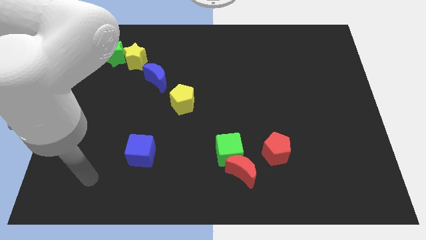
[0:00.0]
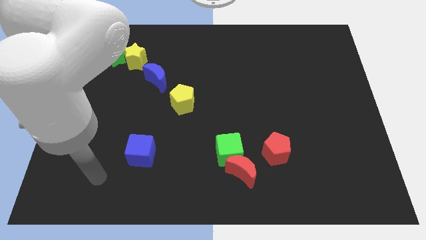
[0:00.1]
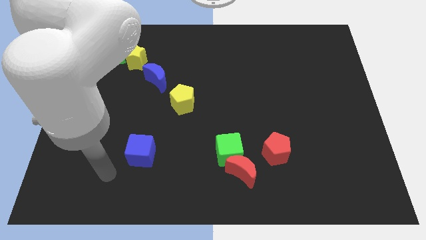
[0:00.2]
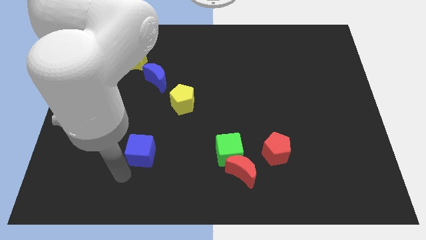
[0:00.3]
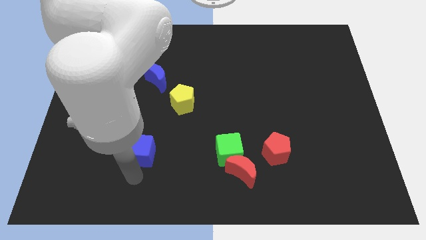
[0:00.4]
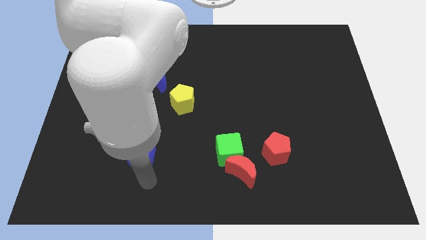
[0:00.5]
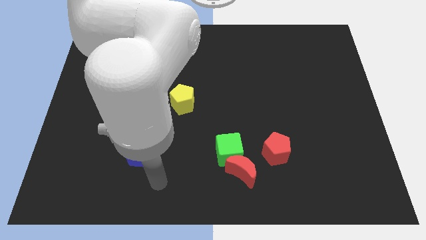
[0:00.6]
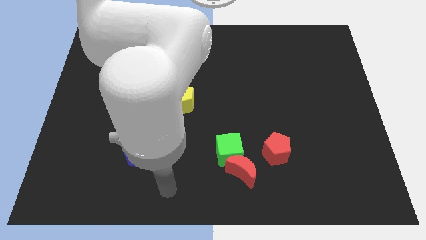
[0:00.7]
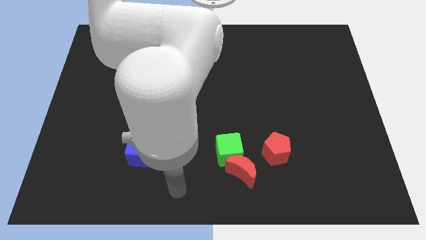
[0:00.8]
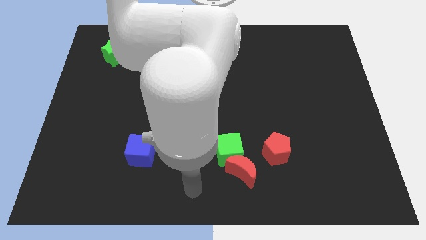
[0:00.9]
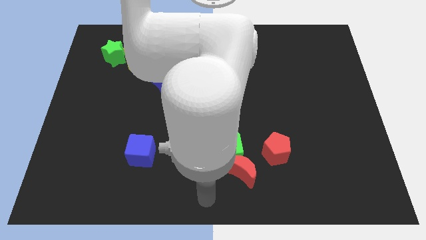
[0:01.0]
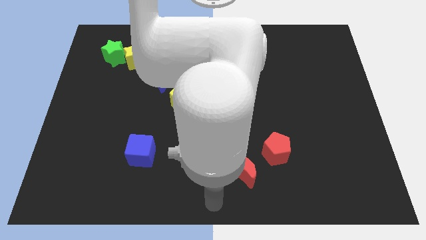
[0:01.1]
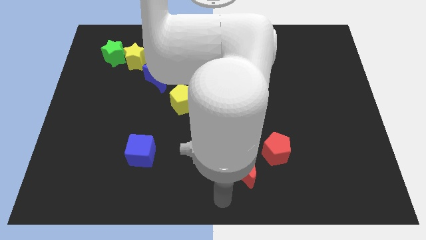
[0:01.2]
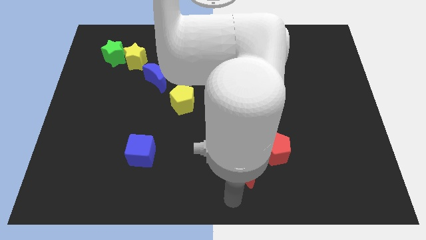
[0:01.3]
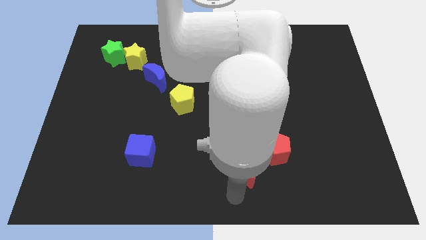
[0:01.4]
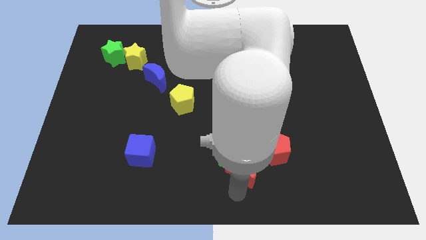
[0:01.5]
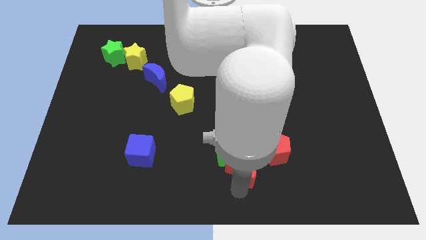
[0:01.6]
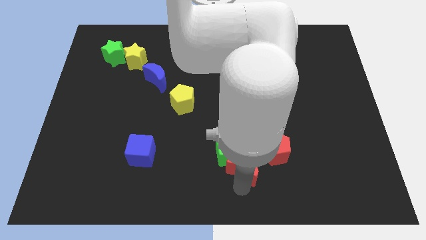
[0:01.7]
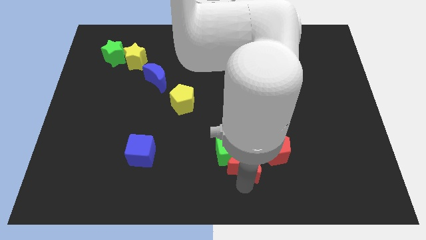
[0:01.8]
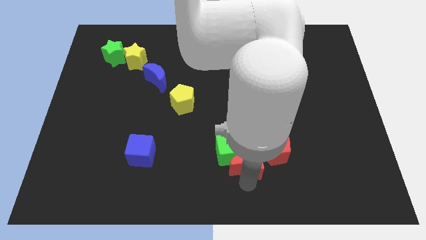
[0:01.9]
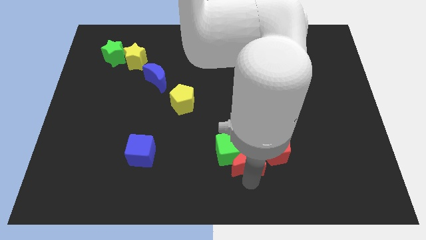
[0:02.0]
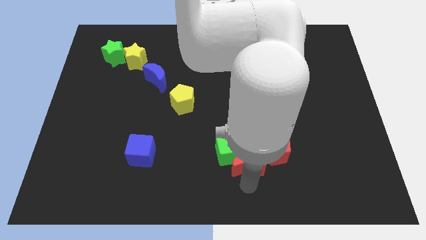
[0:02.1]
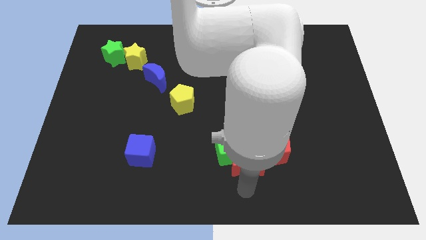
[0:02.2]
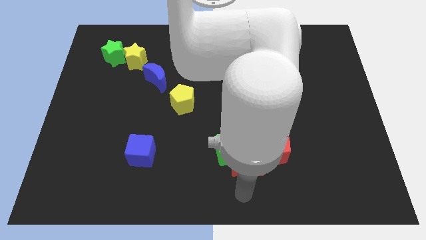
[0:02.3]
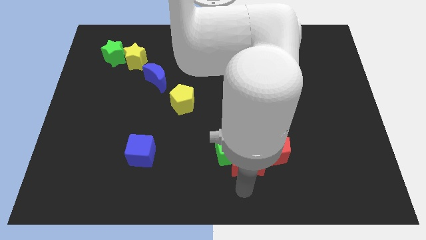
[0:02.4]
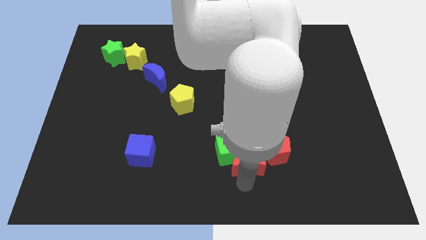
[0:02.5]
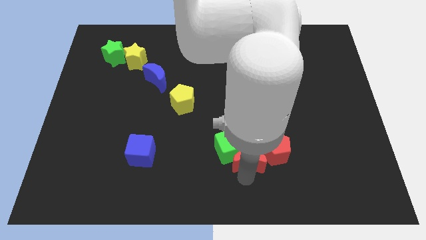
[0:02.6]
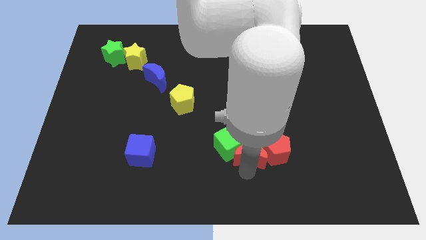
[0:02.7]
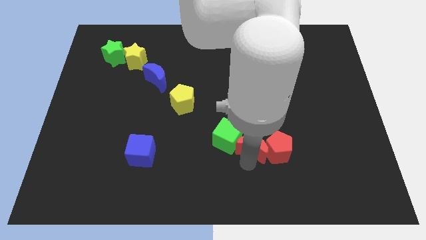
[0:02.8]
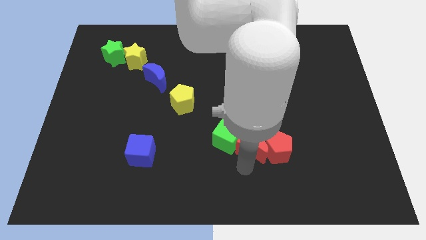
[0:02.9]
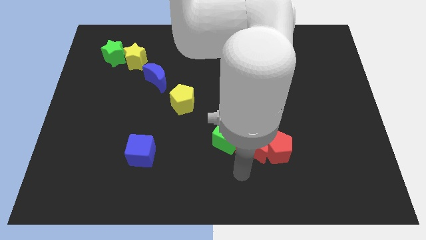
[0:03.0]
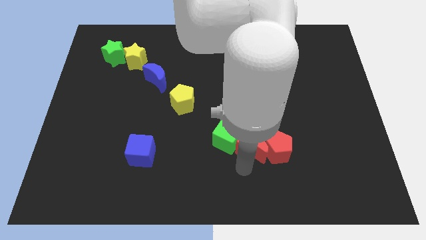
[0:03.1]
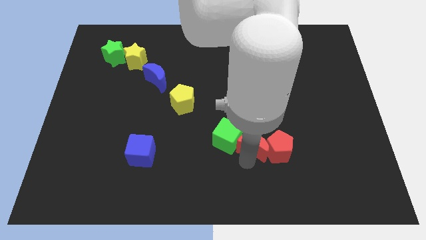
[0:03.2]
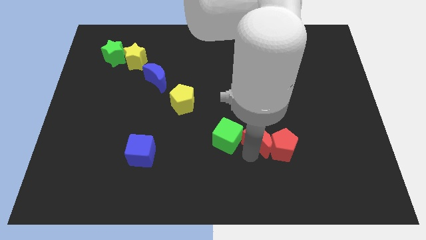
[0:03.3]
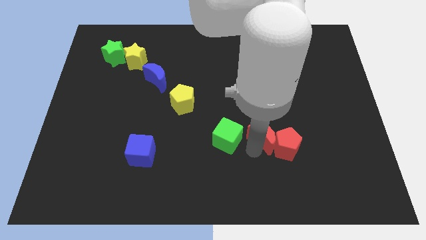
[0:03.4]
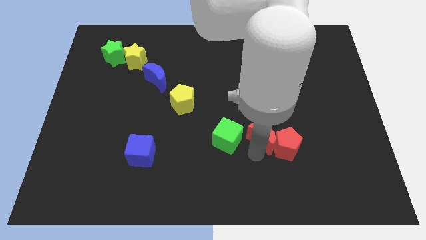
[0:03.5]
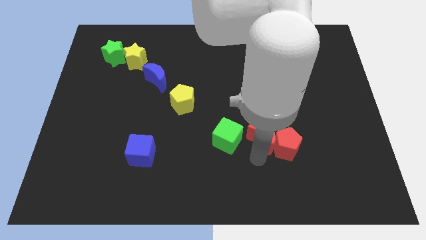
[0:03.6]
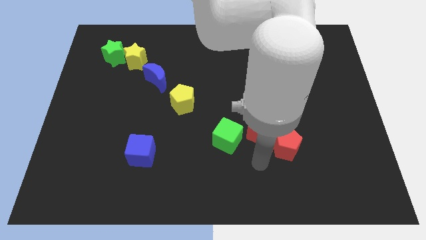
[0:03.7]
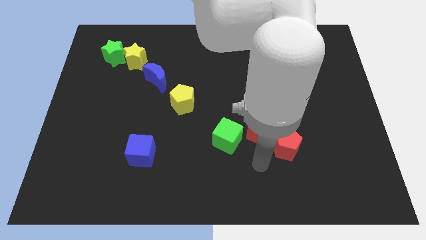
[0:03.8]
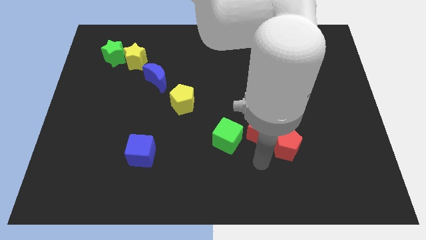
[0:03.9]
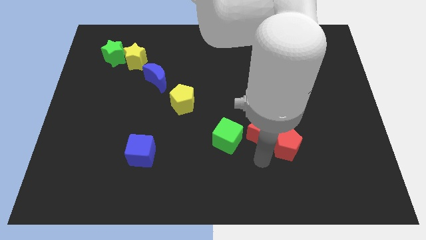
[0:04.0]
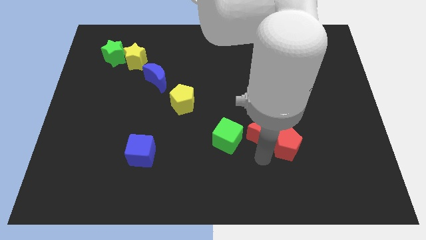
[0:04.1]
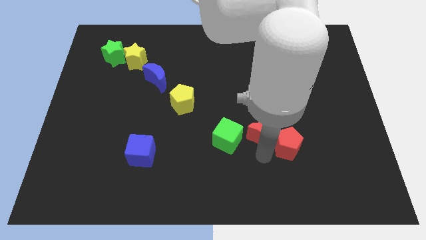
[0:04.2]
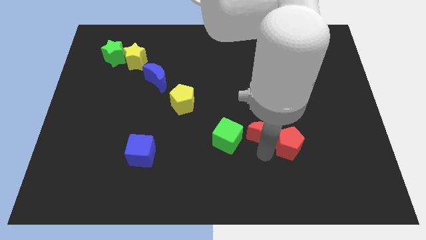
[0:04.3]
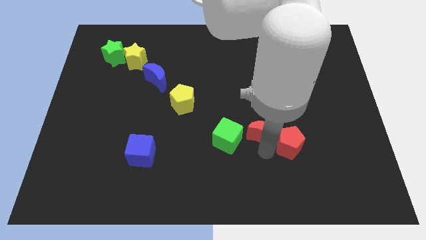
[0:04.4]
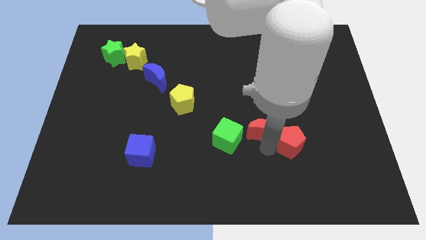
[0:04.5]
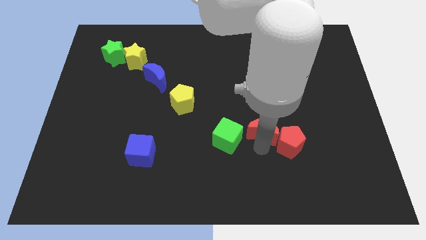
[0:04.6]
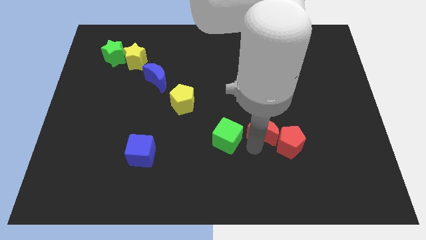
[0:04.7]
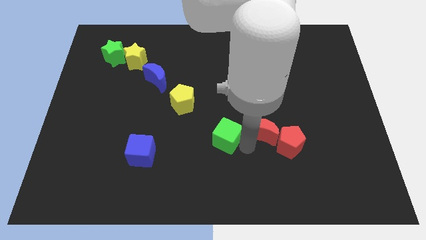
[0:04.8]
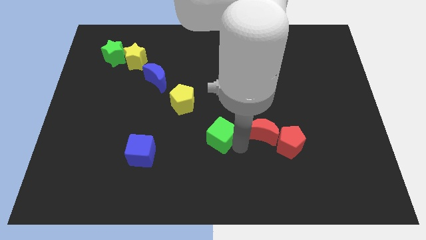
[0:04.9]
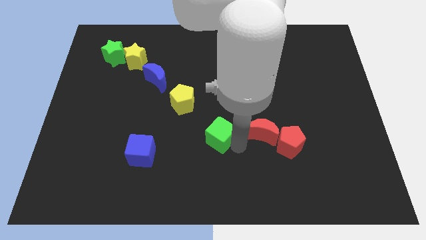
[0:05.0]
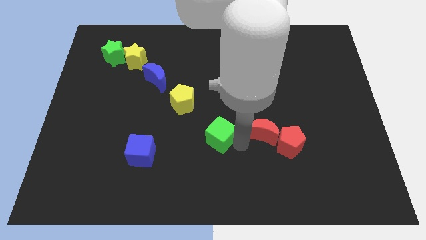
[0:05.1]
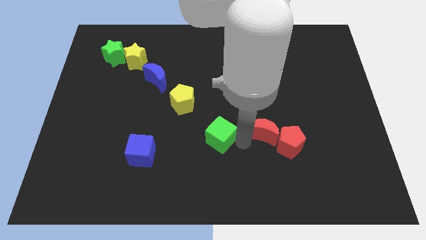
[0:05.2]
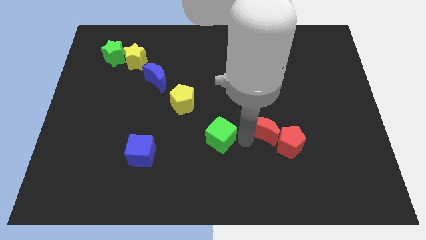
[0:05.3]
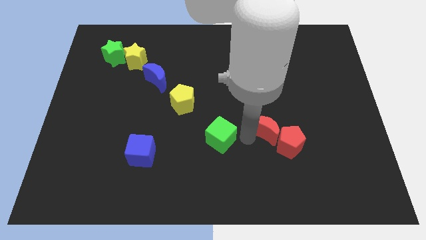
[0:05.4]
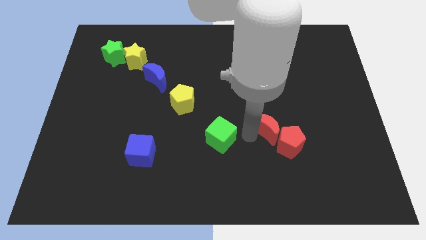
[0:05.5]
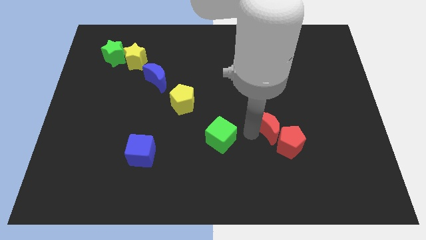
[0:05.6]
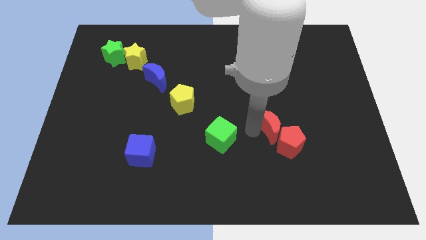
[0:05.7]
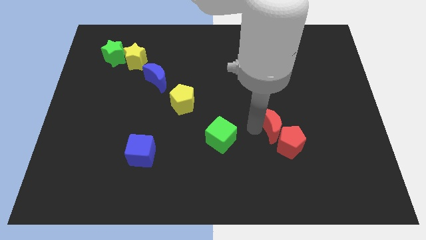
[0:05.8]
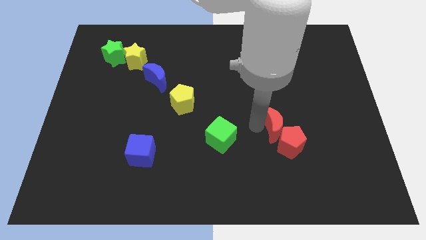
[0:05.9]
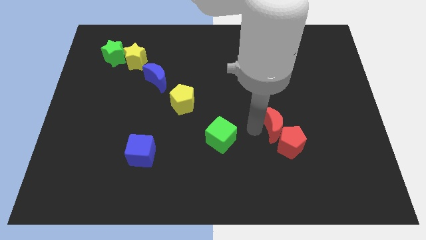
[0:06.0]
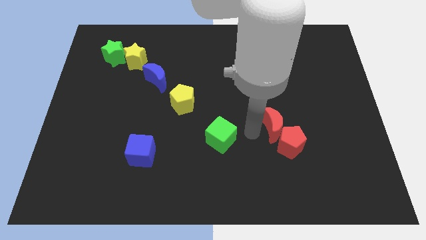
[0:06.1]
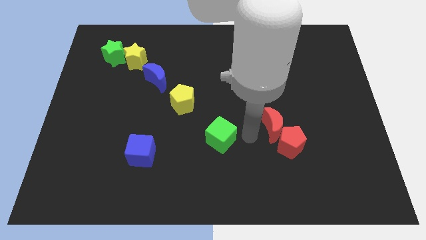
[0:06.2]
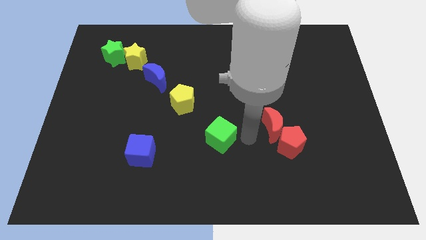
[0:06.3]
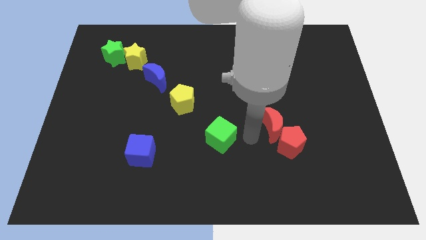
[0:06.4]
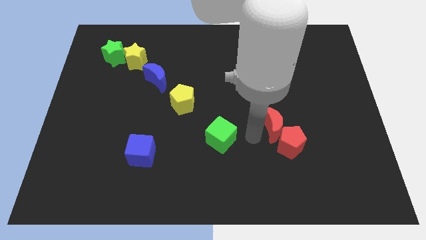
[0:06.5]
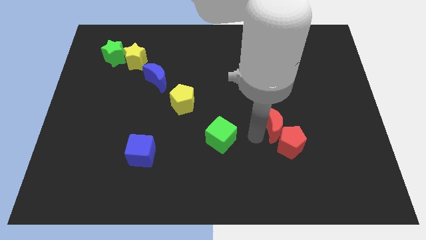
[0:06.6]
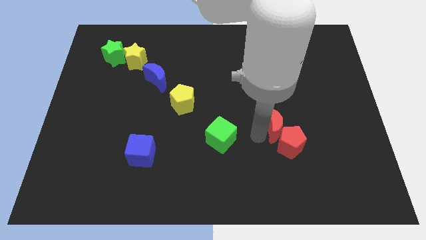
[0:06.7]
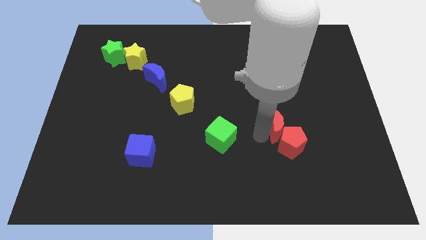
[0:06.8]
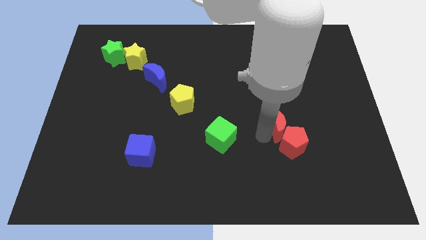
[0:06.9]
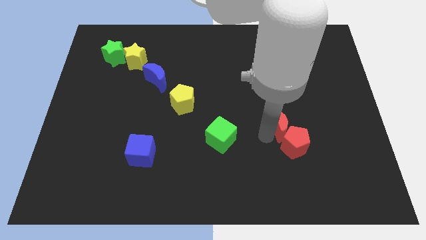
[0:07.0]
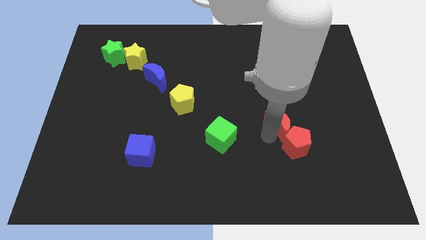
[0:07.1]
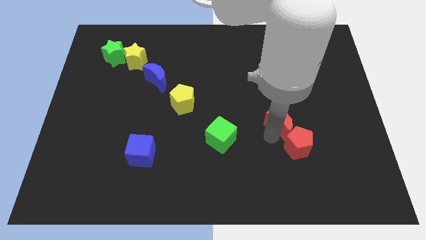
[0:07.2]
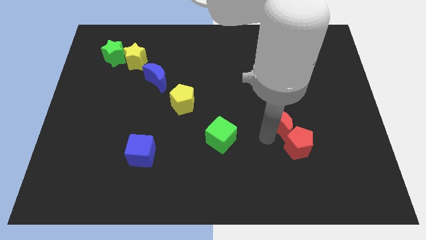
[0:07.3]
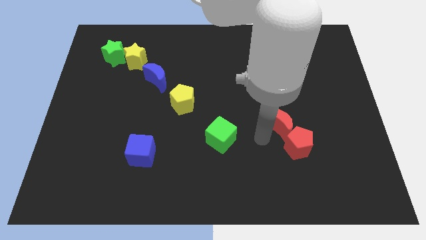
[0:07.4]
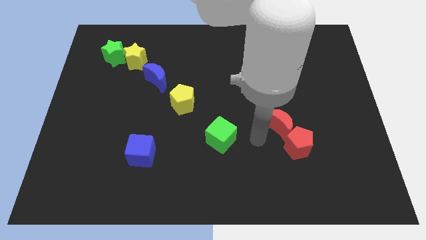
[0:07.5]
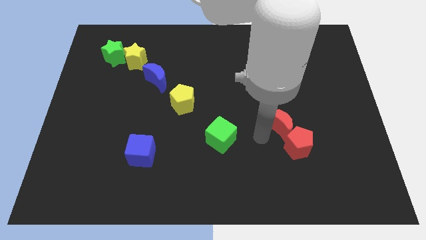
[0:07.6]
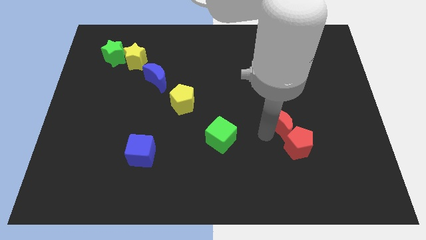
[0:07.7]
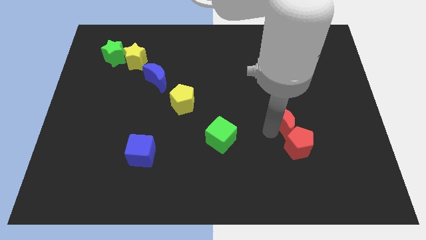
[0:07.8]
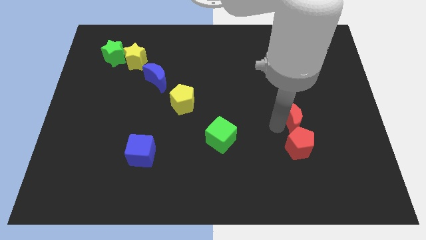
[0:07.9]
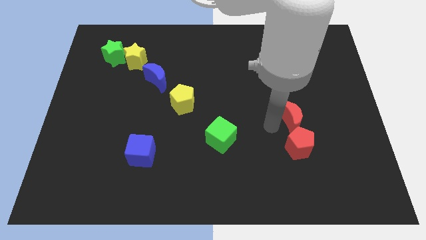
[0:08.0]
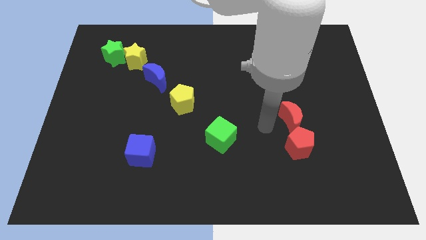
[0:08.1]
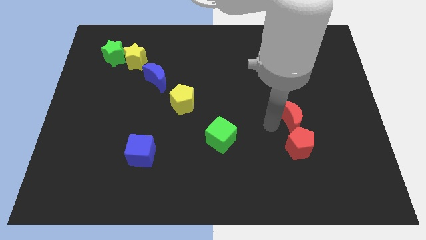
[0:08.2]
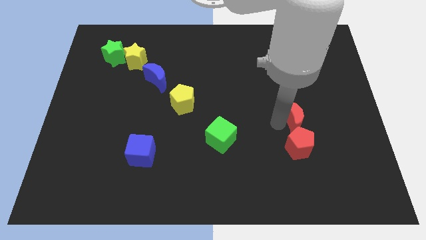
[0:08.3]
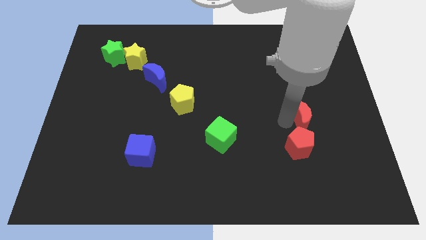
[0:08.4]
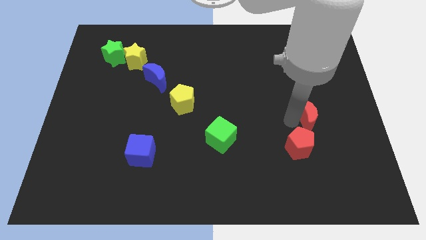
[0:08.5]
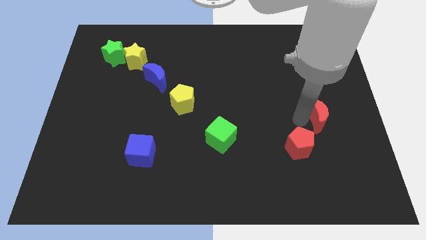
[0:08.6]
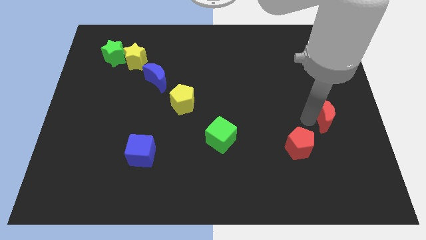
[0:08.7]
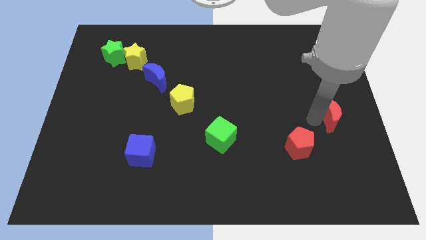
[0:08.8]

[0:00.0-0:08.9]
slide the red moon to the right side
